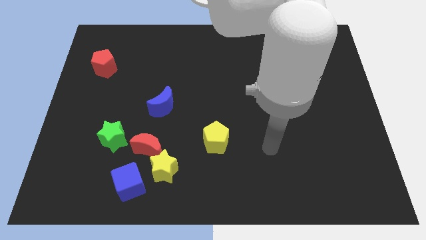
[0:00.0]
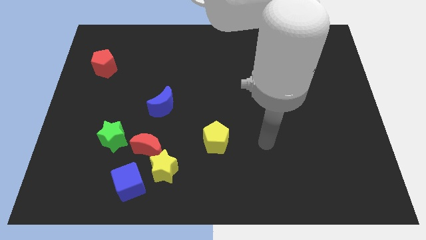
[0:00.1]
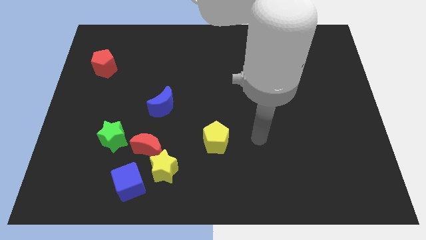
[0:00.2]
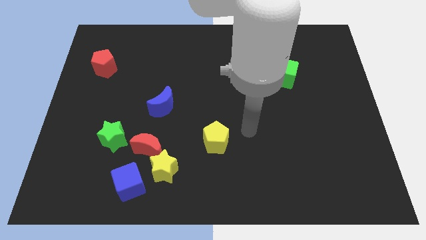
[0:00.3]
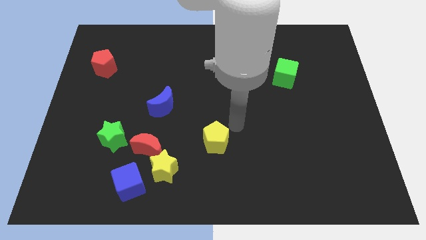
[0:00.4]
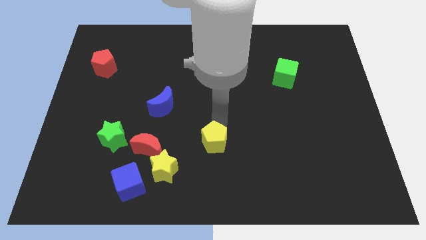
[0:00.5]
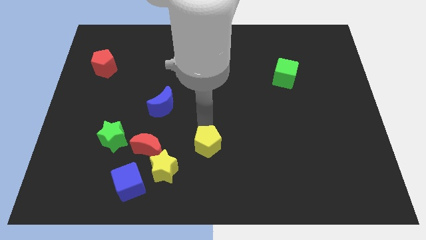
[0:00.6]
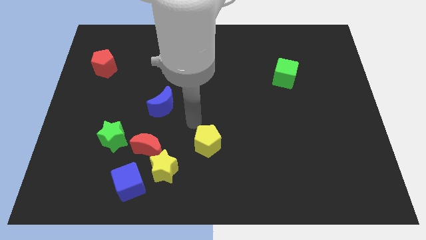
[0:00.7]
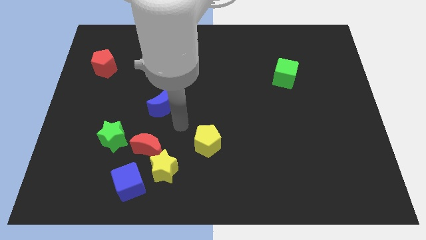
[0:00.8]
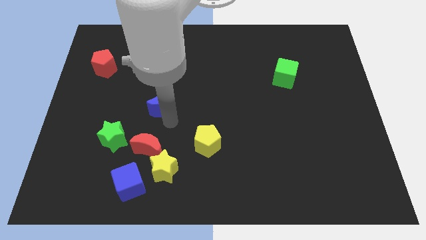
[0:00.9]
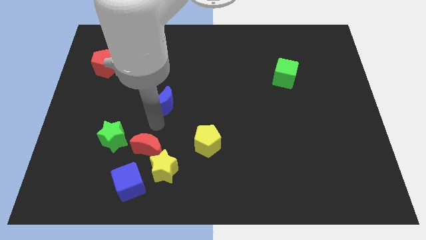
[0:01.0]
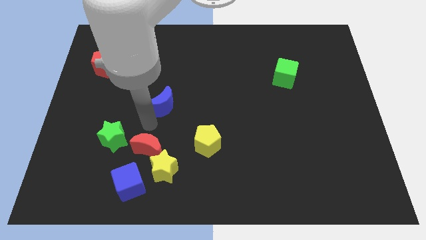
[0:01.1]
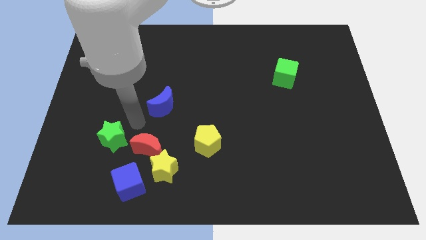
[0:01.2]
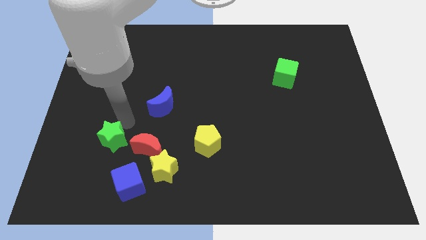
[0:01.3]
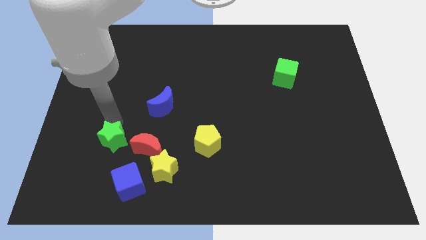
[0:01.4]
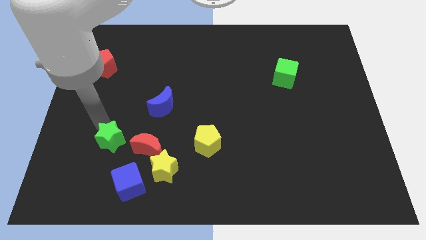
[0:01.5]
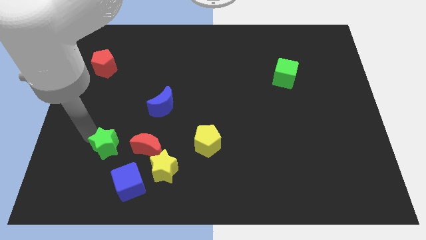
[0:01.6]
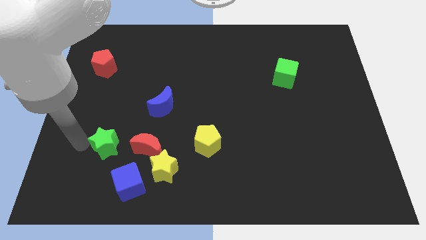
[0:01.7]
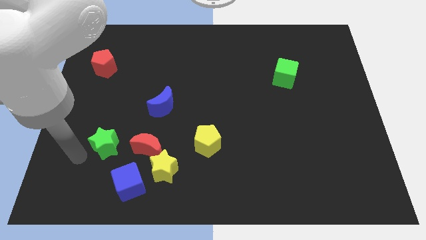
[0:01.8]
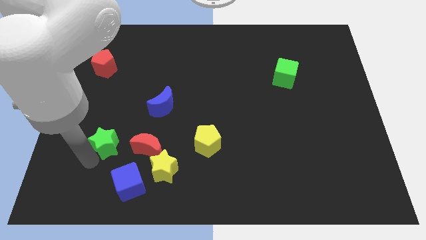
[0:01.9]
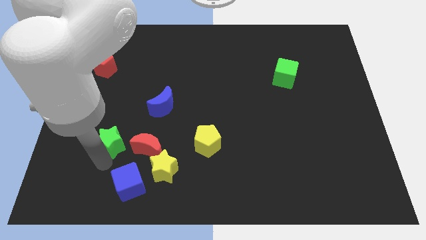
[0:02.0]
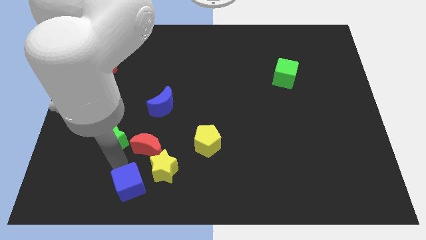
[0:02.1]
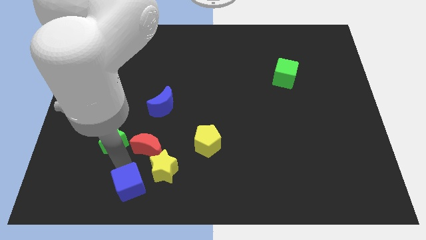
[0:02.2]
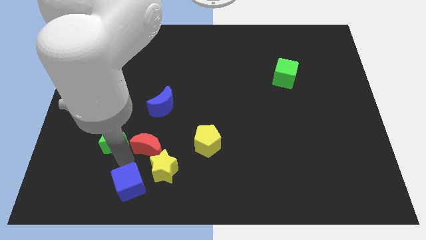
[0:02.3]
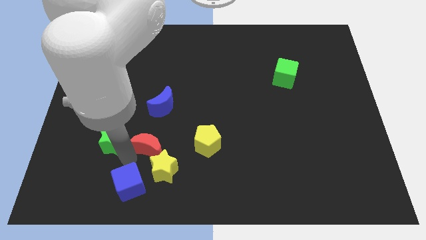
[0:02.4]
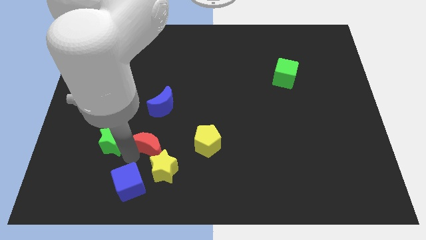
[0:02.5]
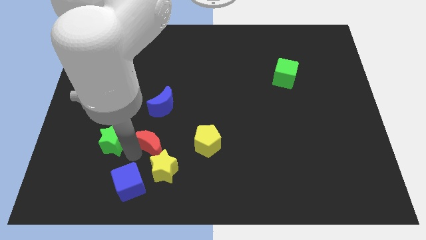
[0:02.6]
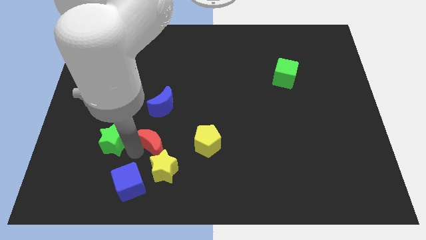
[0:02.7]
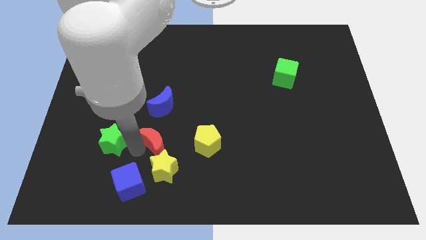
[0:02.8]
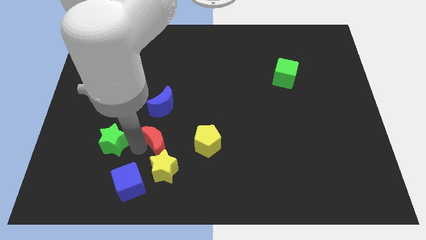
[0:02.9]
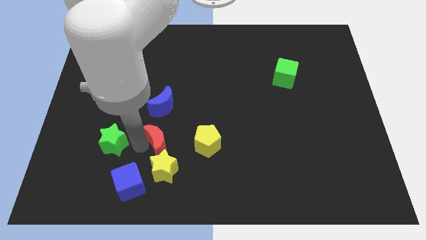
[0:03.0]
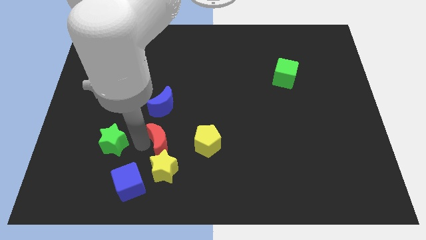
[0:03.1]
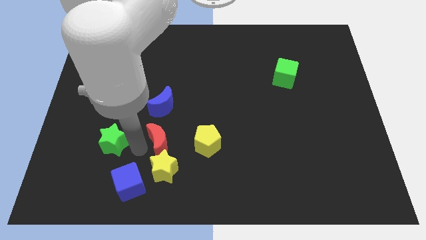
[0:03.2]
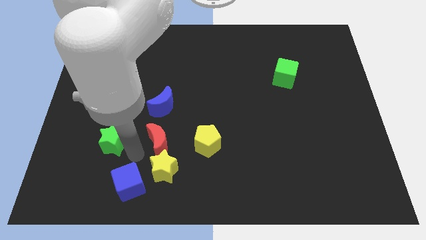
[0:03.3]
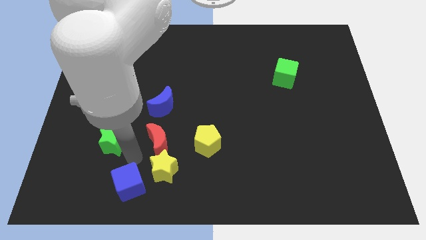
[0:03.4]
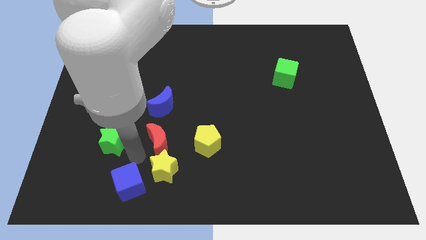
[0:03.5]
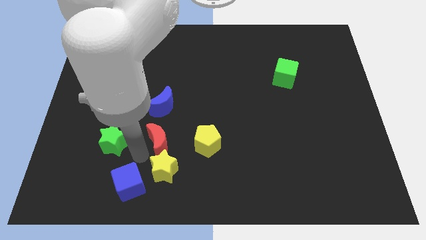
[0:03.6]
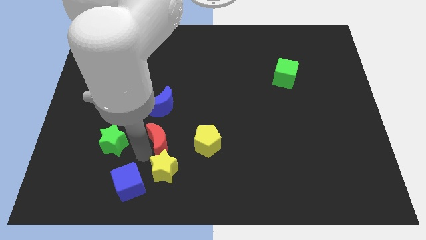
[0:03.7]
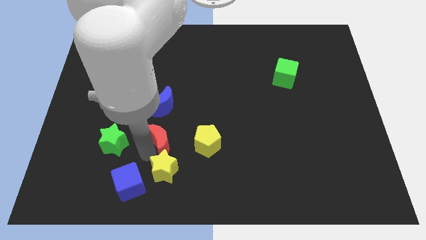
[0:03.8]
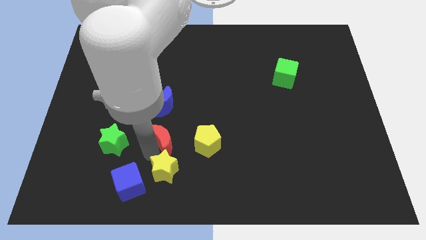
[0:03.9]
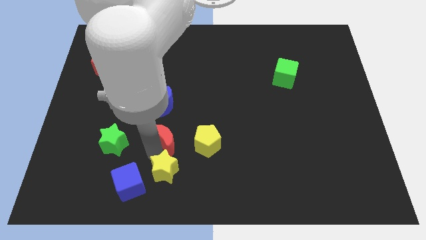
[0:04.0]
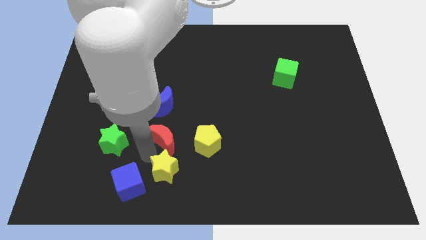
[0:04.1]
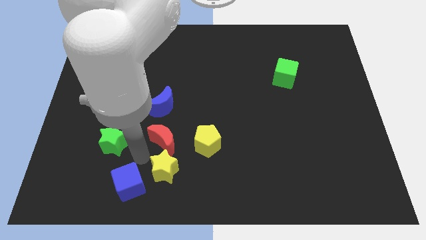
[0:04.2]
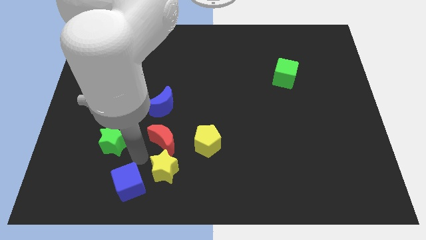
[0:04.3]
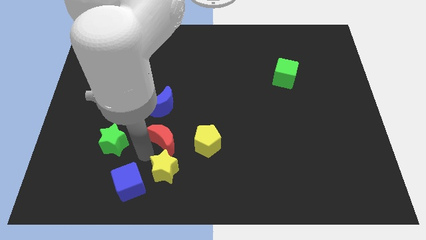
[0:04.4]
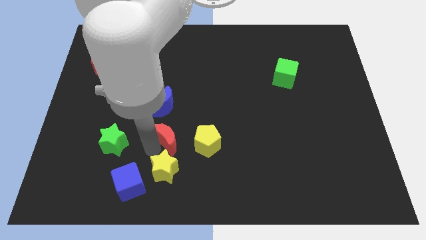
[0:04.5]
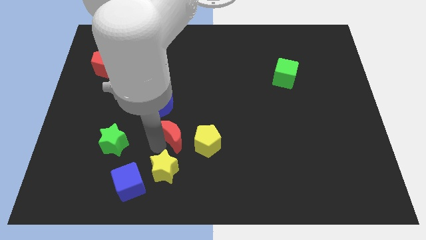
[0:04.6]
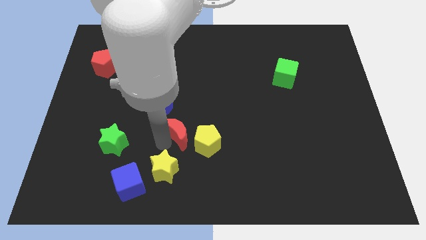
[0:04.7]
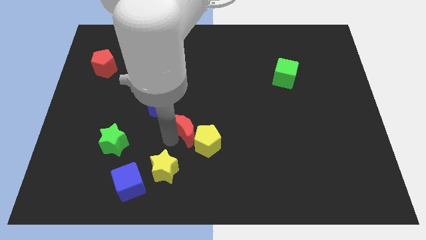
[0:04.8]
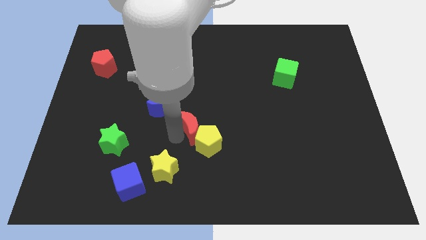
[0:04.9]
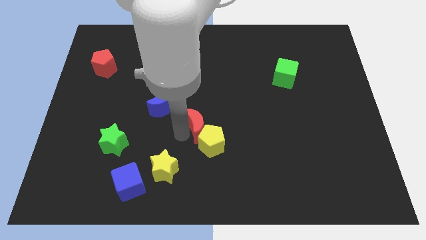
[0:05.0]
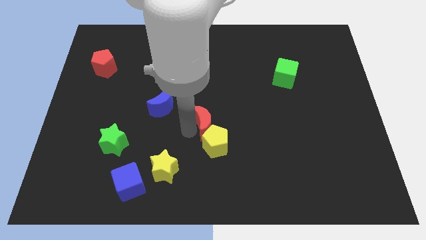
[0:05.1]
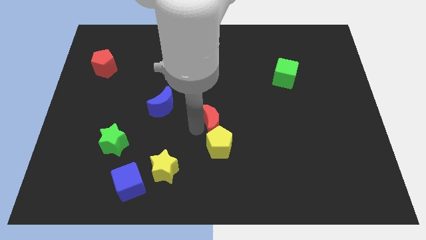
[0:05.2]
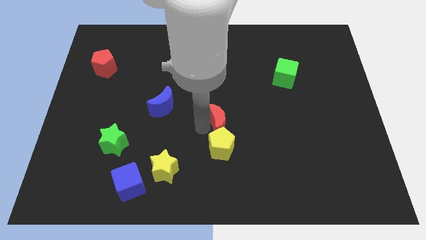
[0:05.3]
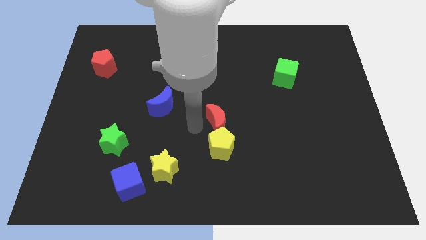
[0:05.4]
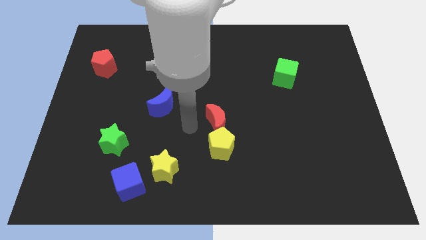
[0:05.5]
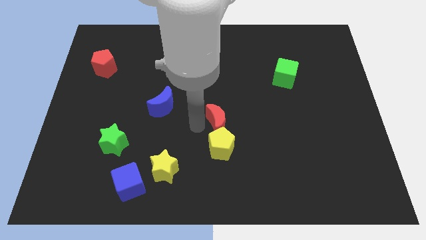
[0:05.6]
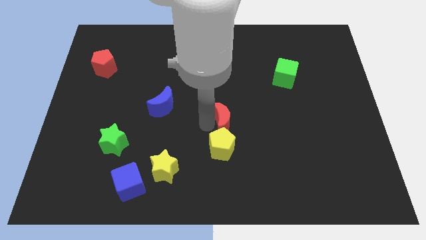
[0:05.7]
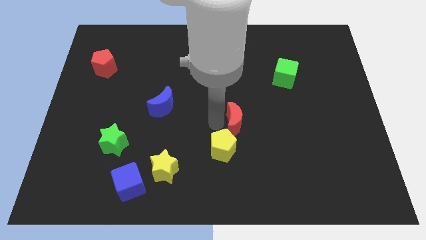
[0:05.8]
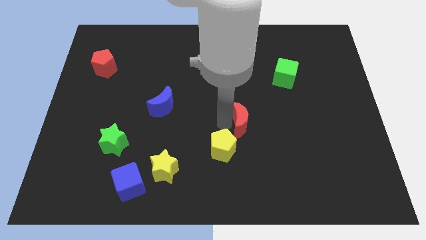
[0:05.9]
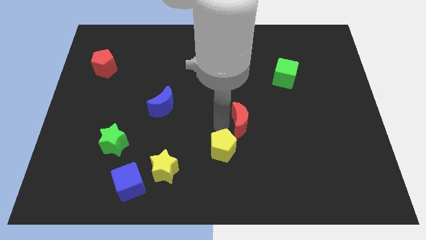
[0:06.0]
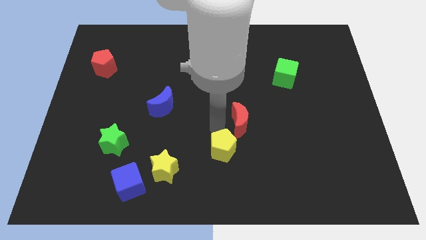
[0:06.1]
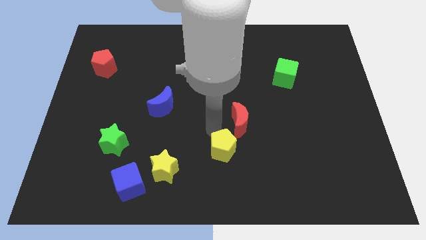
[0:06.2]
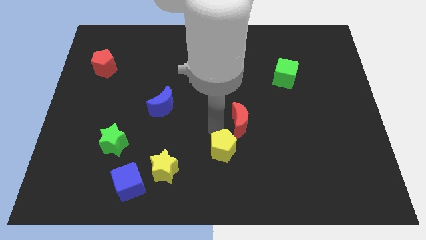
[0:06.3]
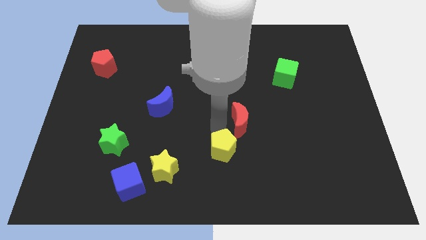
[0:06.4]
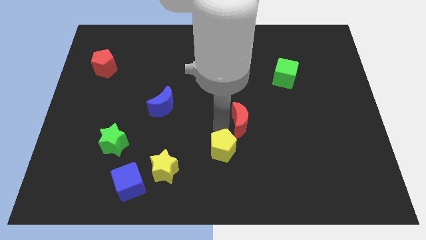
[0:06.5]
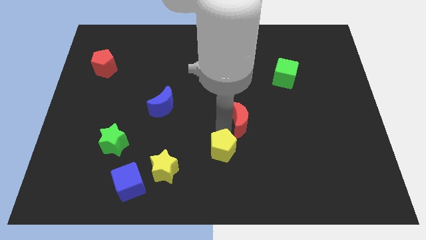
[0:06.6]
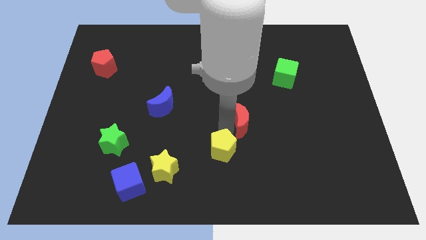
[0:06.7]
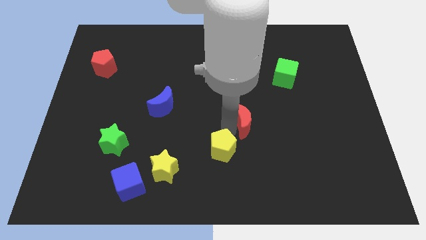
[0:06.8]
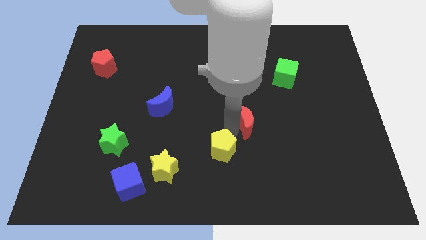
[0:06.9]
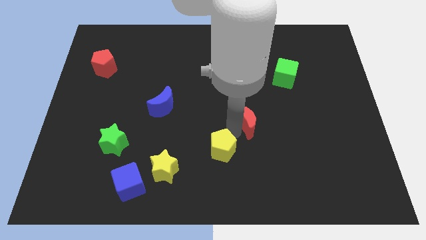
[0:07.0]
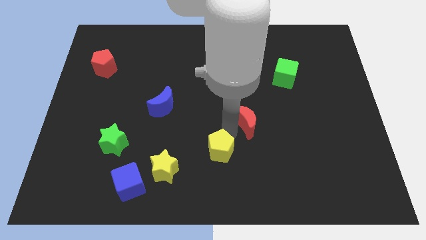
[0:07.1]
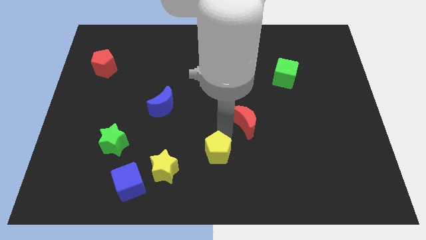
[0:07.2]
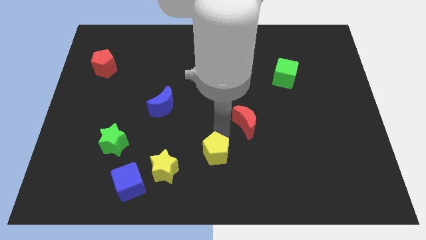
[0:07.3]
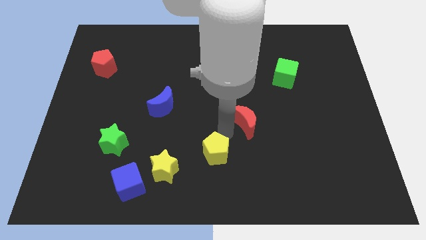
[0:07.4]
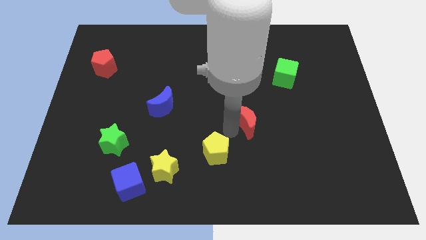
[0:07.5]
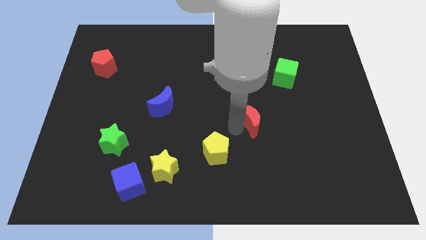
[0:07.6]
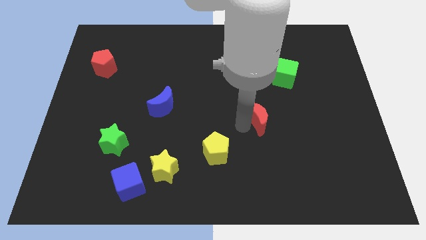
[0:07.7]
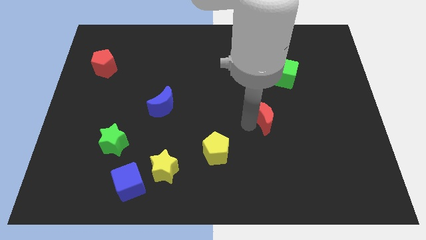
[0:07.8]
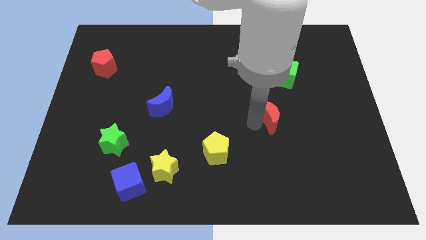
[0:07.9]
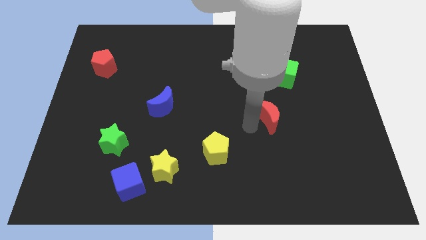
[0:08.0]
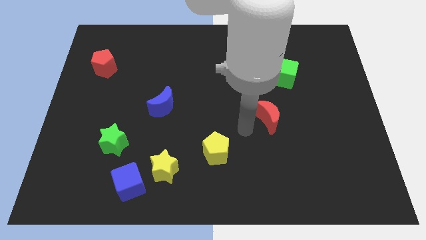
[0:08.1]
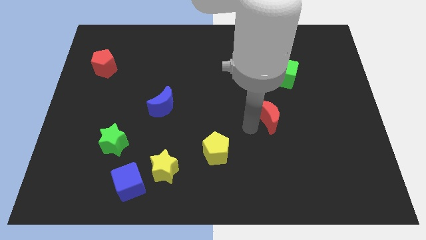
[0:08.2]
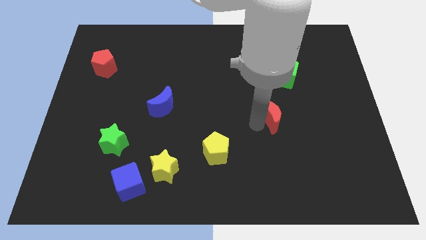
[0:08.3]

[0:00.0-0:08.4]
slide the red moon to the bottom of the green cube
